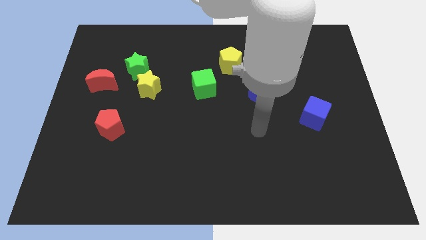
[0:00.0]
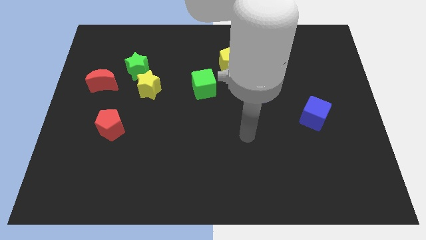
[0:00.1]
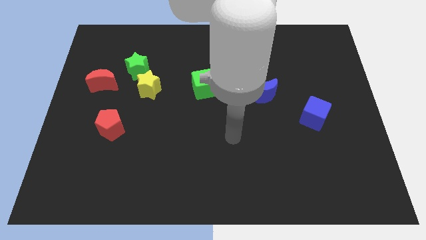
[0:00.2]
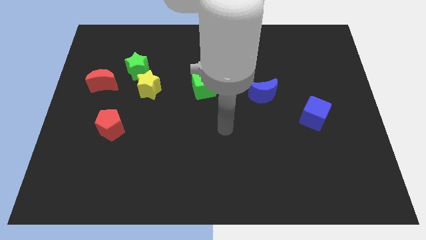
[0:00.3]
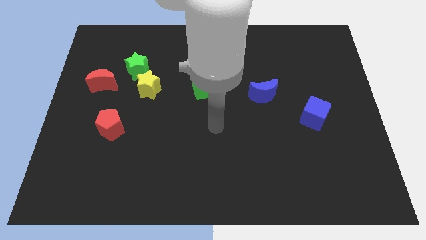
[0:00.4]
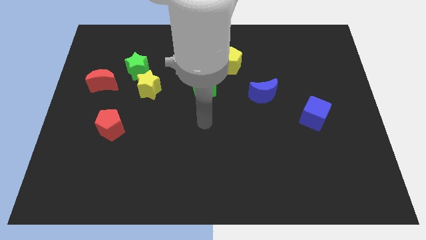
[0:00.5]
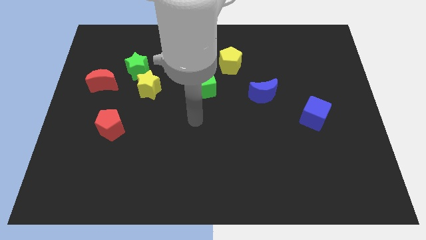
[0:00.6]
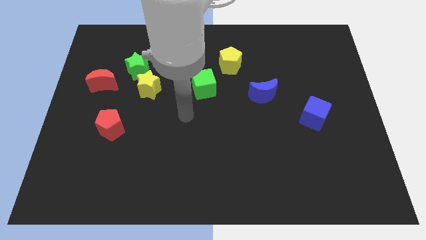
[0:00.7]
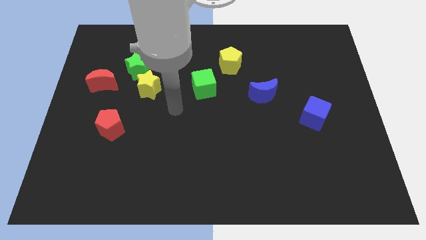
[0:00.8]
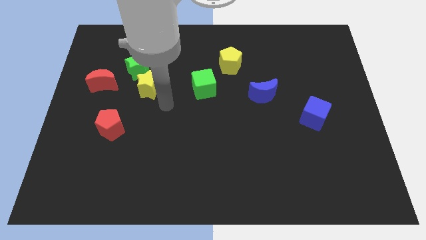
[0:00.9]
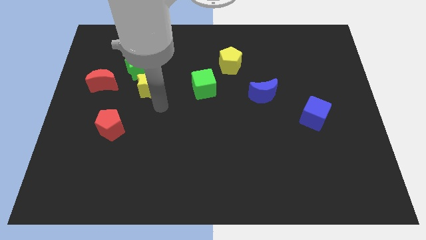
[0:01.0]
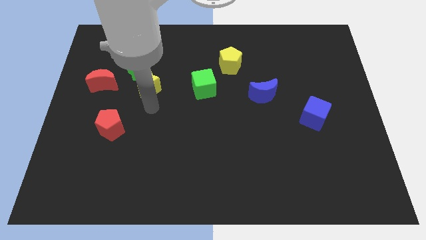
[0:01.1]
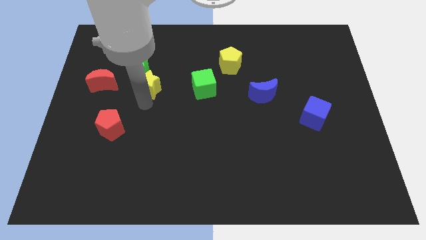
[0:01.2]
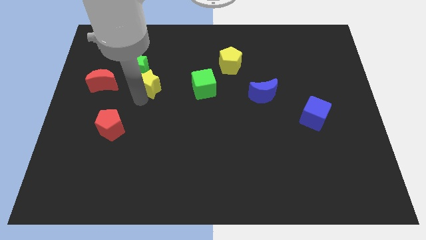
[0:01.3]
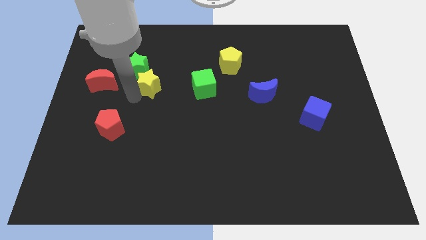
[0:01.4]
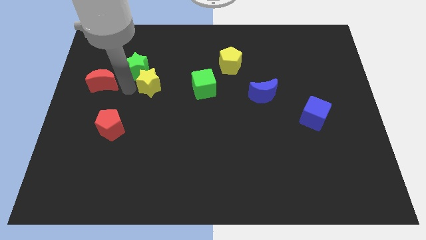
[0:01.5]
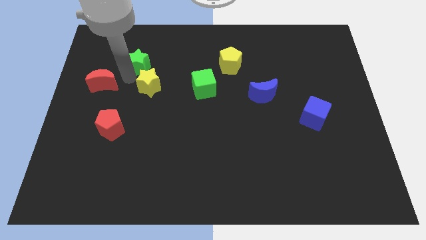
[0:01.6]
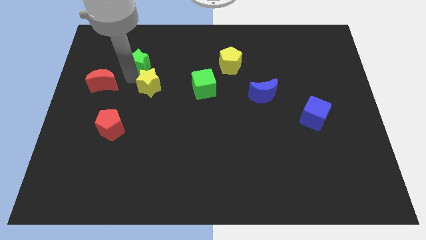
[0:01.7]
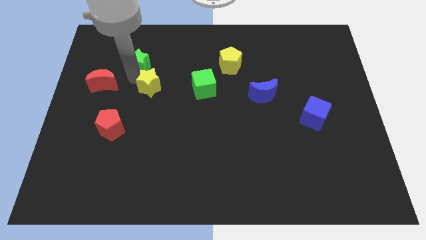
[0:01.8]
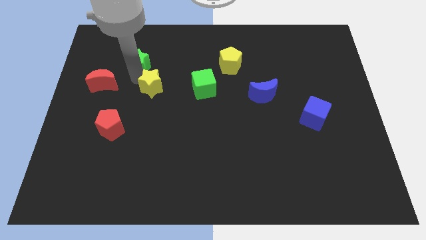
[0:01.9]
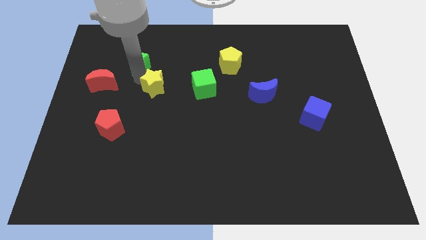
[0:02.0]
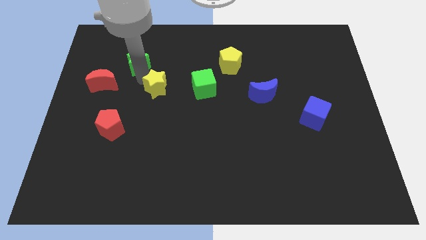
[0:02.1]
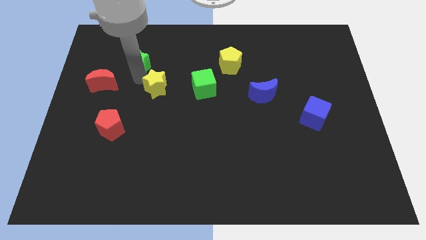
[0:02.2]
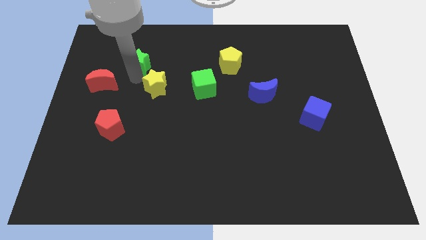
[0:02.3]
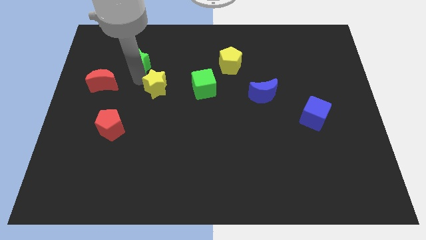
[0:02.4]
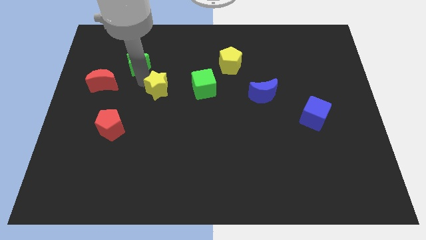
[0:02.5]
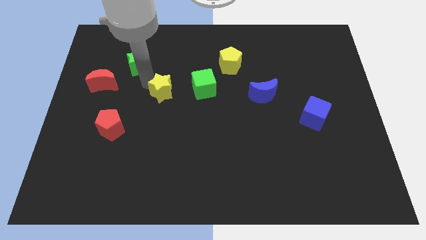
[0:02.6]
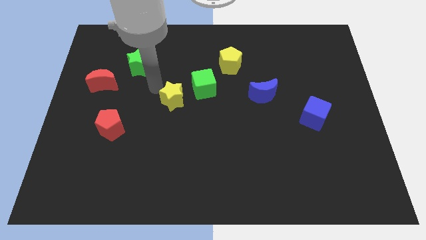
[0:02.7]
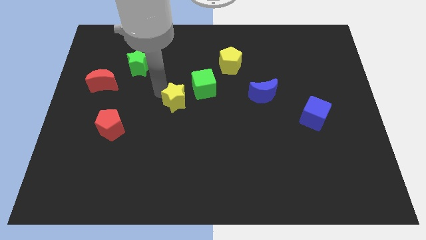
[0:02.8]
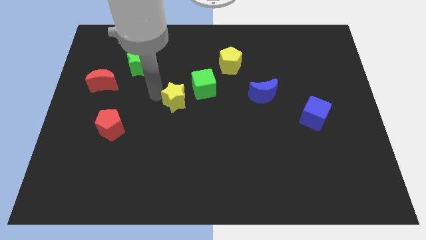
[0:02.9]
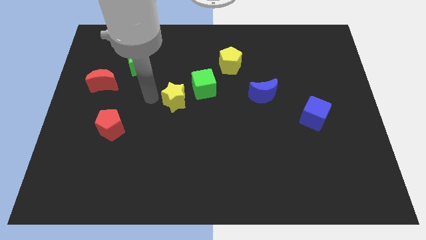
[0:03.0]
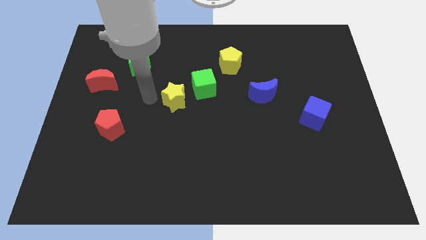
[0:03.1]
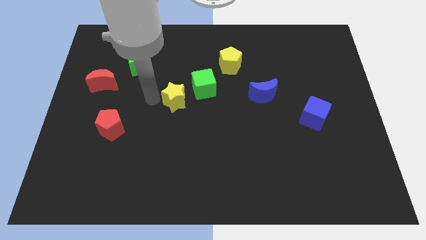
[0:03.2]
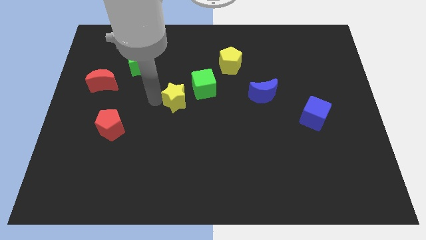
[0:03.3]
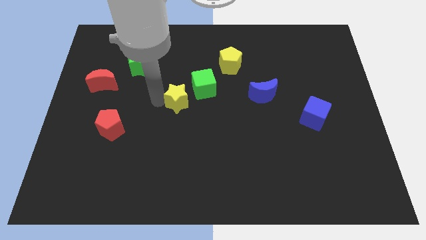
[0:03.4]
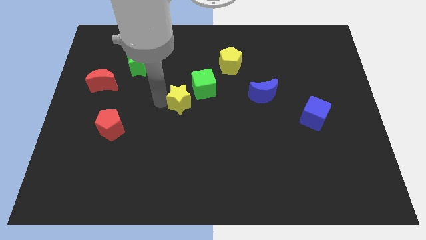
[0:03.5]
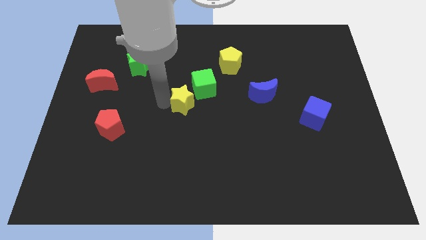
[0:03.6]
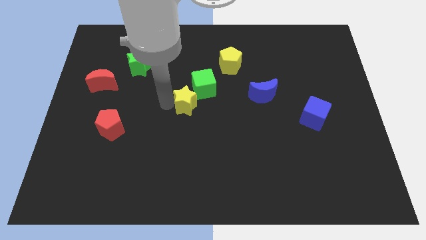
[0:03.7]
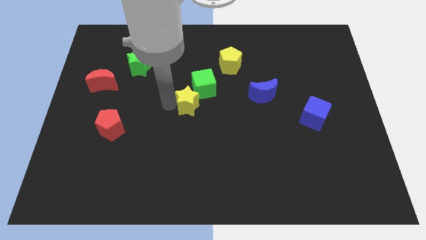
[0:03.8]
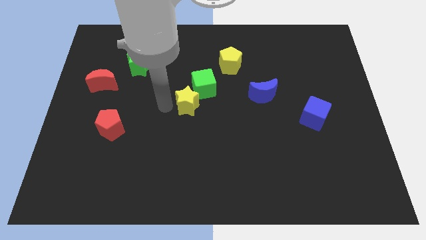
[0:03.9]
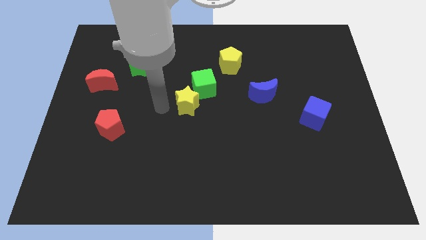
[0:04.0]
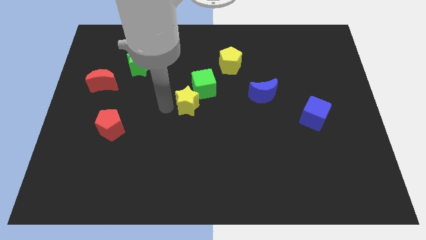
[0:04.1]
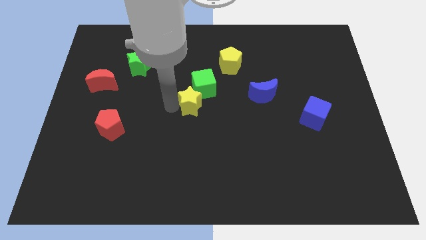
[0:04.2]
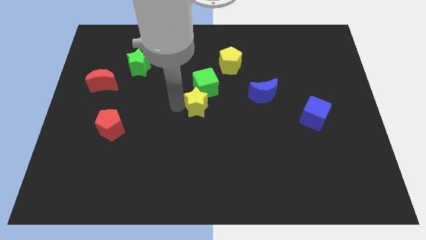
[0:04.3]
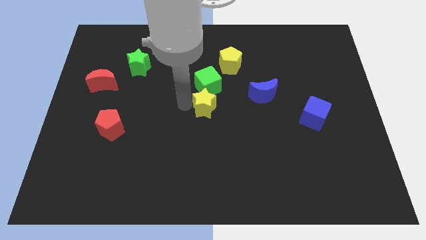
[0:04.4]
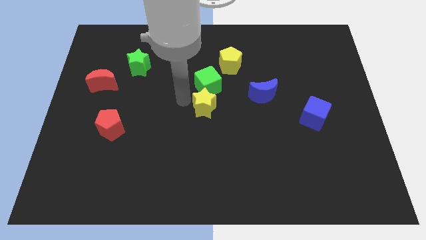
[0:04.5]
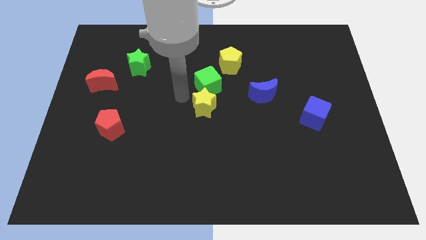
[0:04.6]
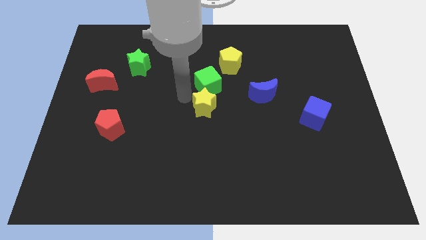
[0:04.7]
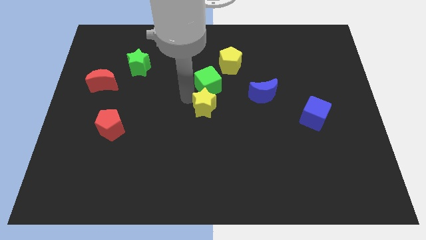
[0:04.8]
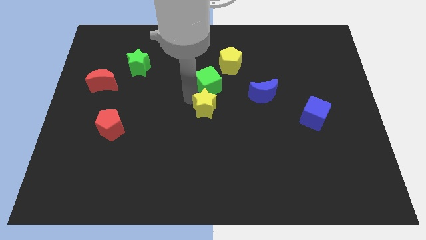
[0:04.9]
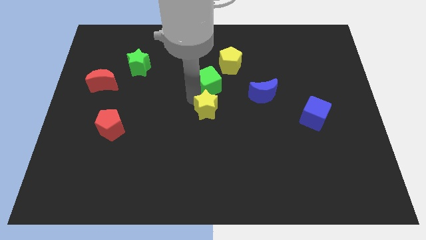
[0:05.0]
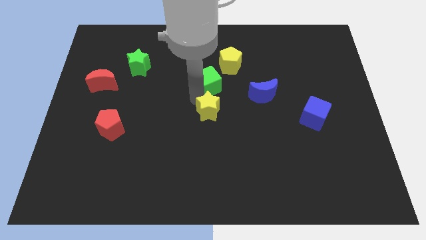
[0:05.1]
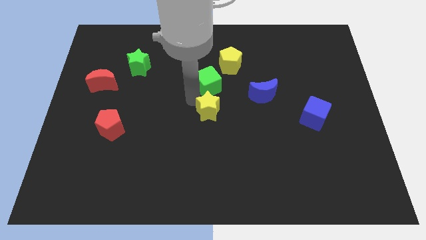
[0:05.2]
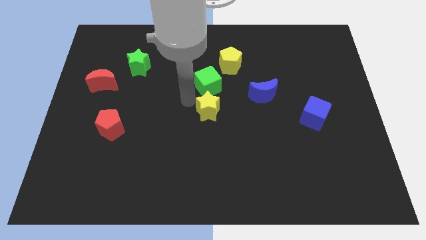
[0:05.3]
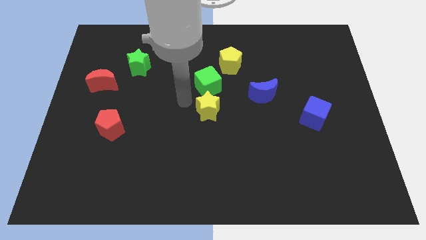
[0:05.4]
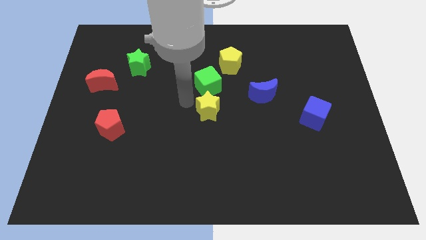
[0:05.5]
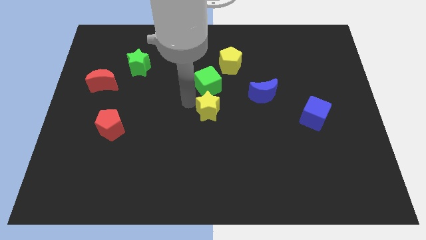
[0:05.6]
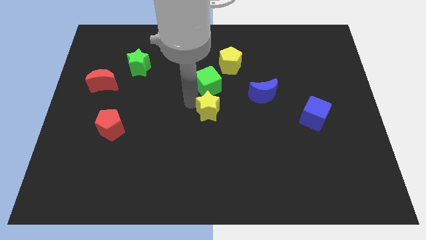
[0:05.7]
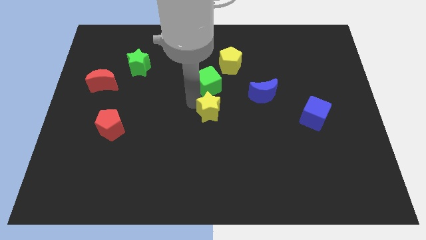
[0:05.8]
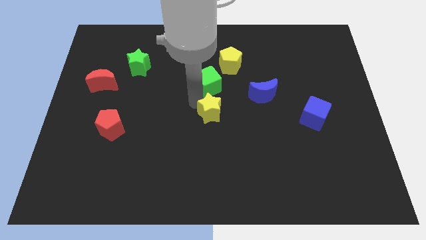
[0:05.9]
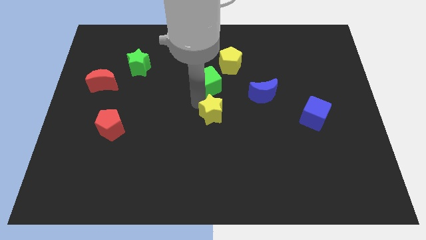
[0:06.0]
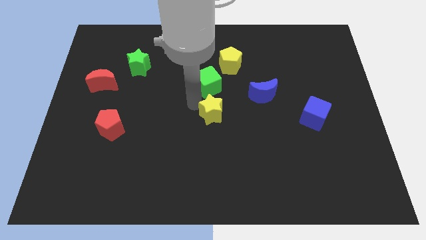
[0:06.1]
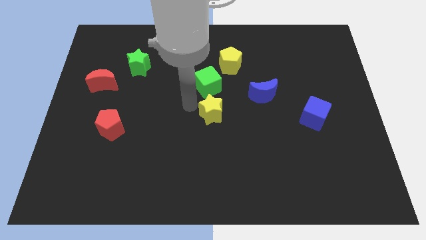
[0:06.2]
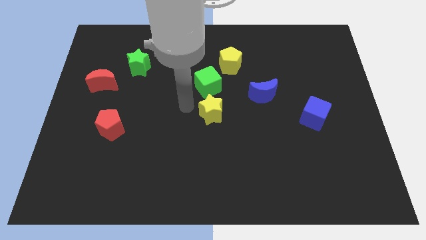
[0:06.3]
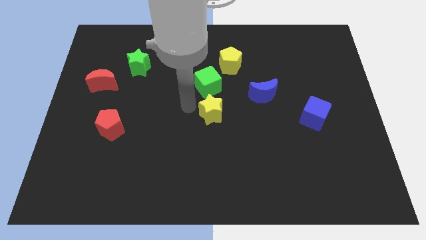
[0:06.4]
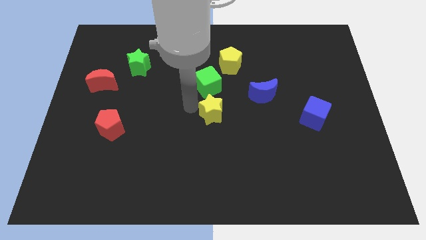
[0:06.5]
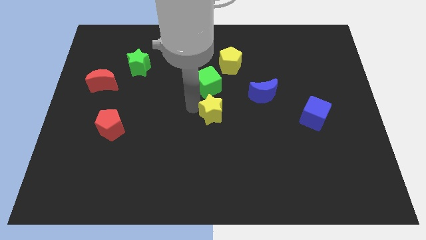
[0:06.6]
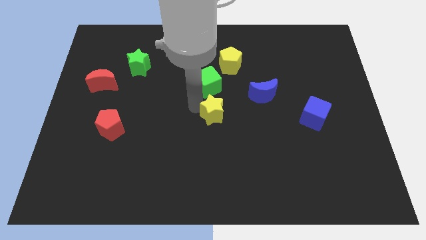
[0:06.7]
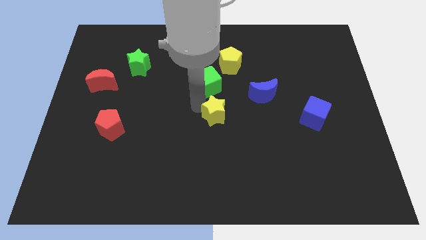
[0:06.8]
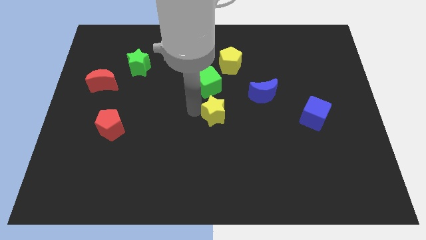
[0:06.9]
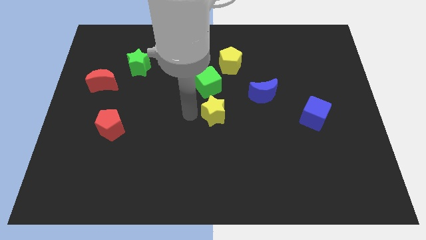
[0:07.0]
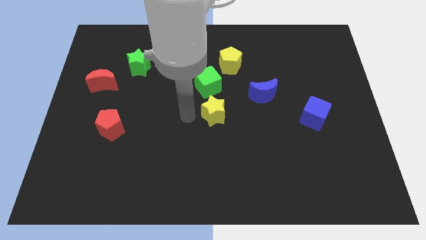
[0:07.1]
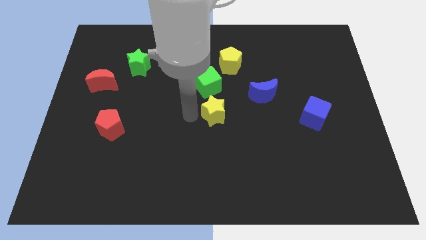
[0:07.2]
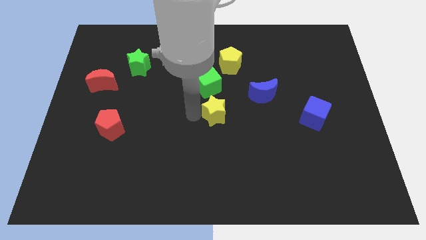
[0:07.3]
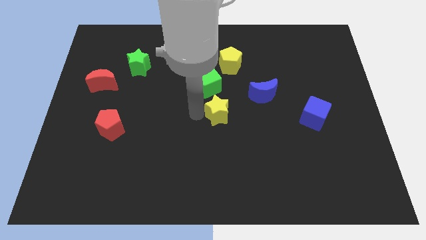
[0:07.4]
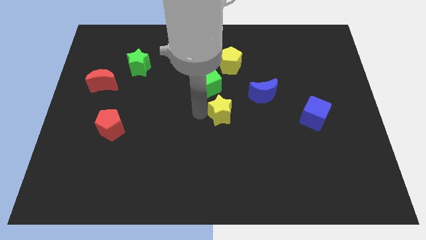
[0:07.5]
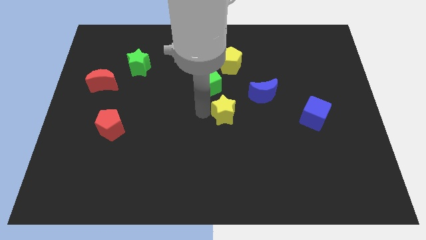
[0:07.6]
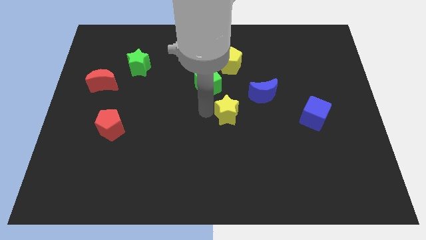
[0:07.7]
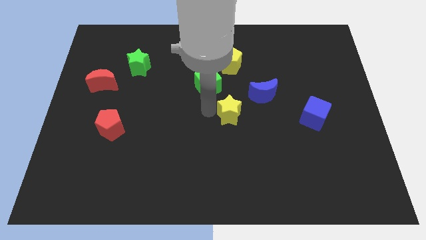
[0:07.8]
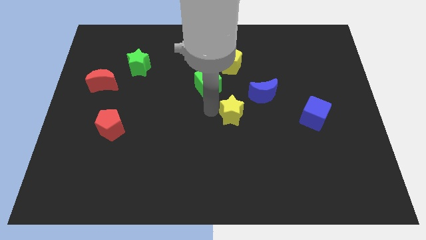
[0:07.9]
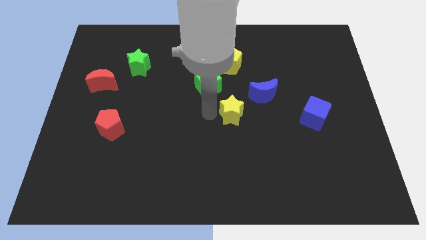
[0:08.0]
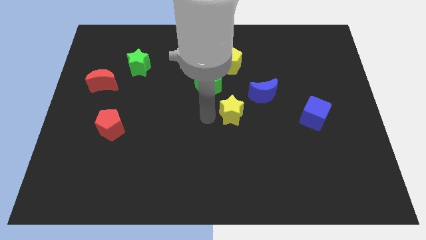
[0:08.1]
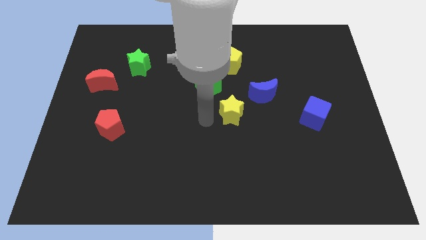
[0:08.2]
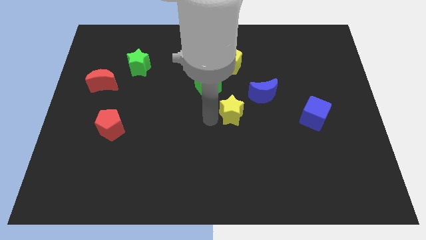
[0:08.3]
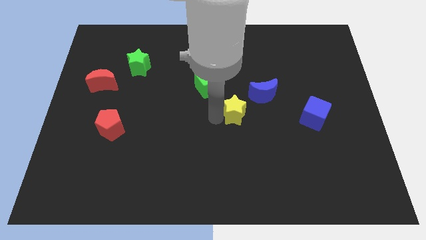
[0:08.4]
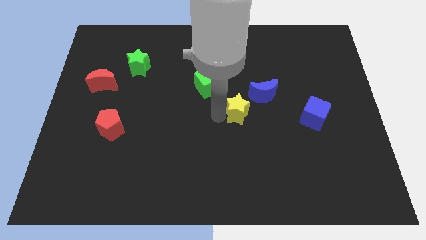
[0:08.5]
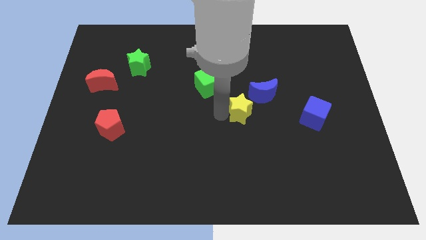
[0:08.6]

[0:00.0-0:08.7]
slide the yellow star to the right
